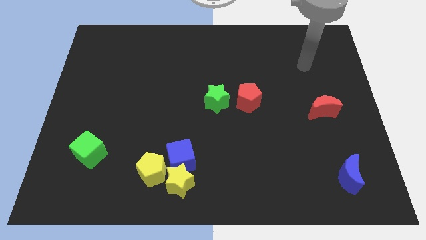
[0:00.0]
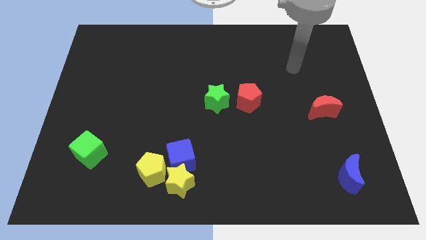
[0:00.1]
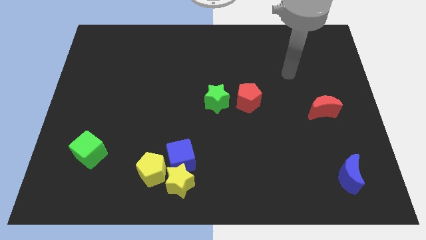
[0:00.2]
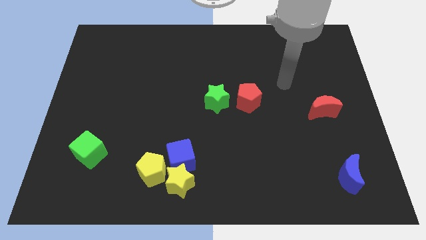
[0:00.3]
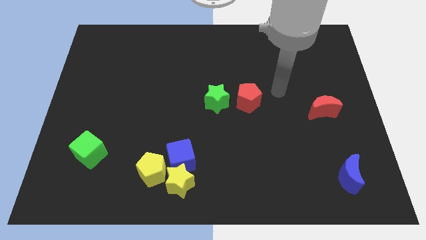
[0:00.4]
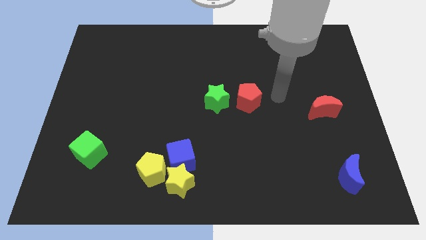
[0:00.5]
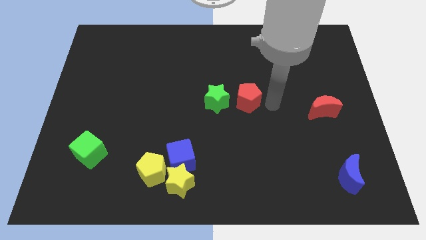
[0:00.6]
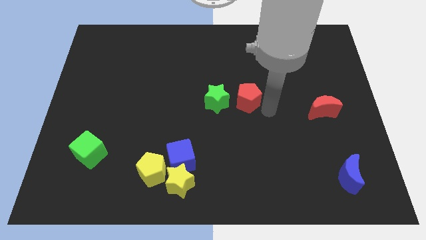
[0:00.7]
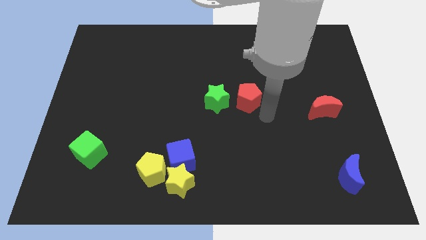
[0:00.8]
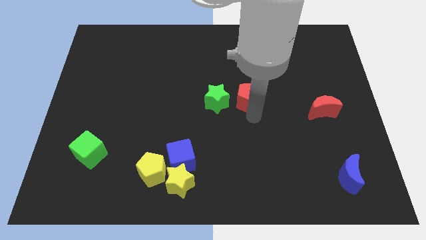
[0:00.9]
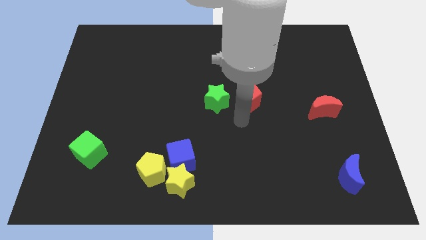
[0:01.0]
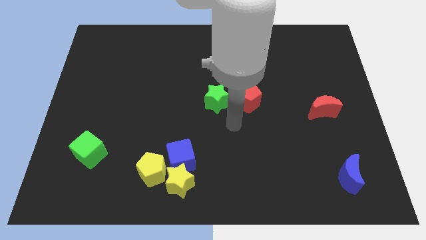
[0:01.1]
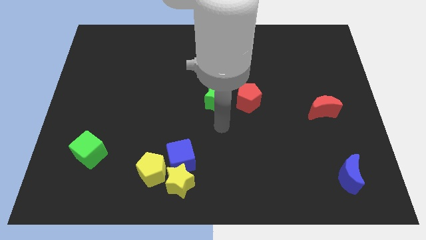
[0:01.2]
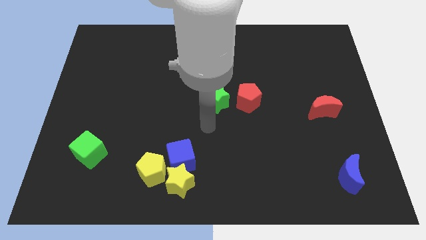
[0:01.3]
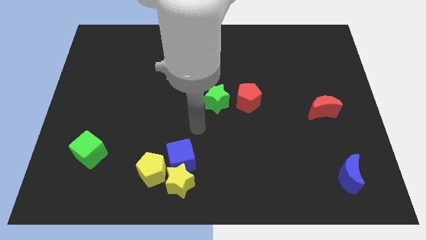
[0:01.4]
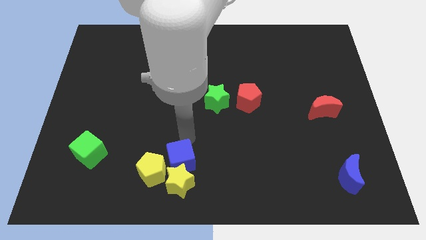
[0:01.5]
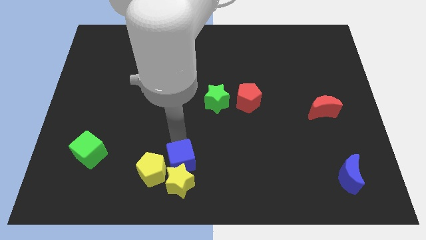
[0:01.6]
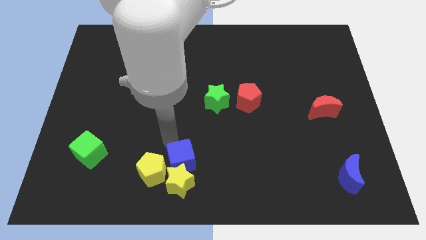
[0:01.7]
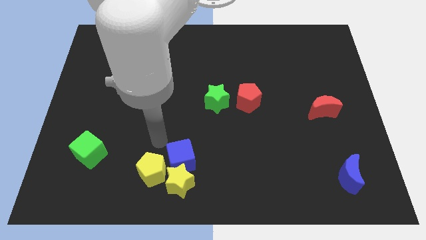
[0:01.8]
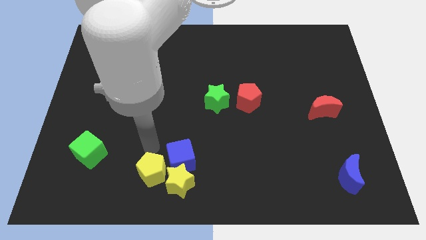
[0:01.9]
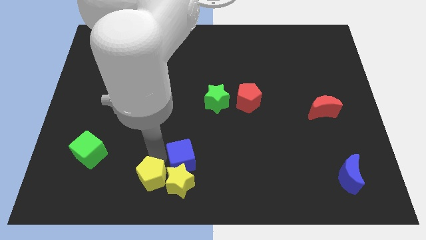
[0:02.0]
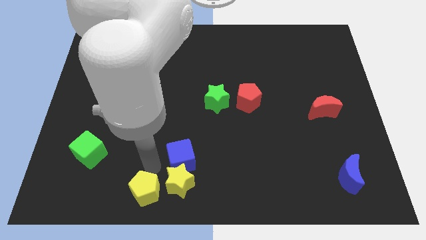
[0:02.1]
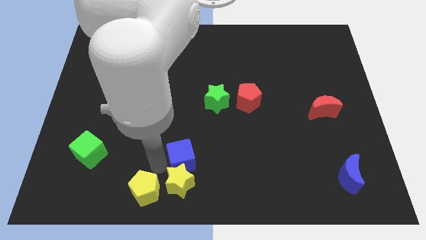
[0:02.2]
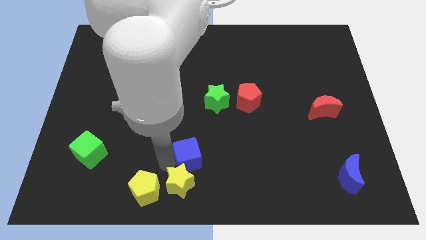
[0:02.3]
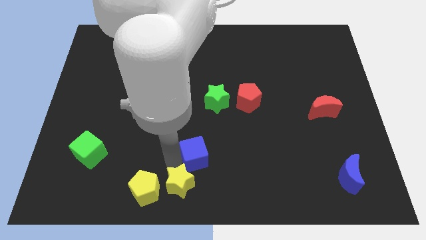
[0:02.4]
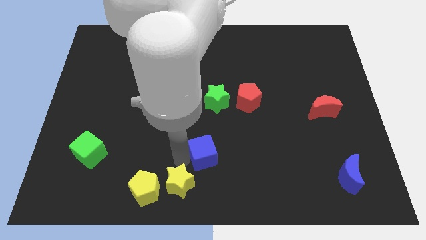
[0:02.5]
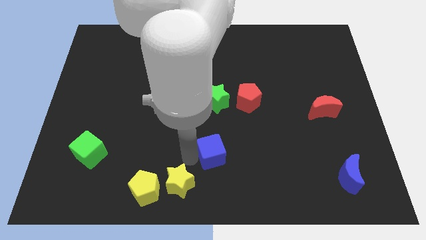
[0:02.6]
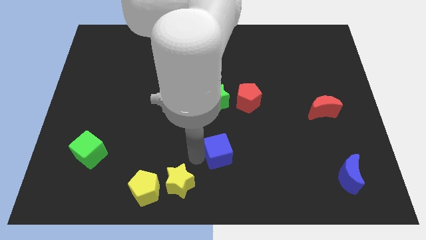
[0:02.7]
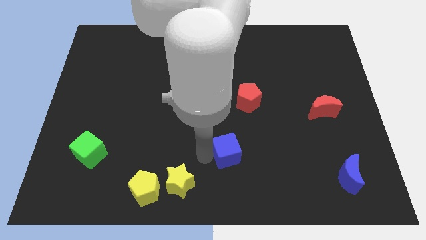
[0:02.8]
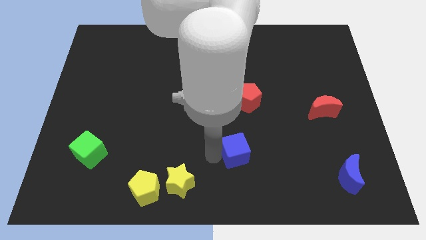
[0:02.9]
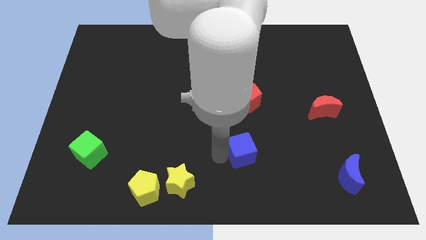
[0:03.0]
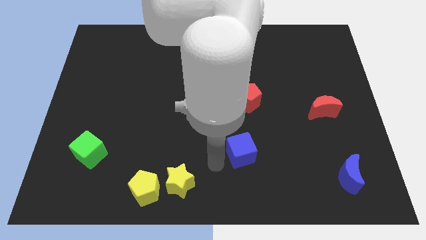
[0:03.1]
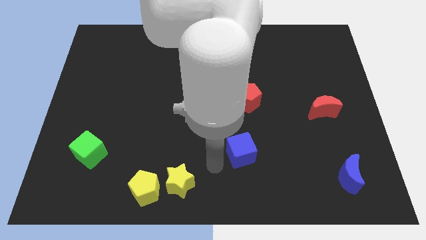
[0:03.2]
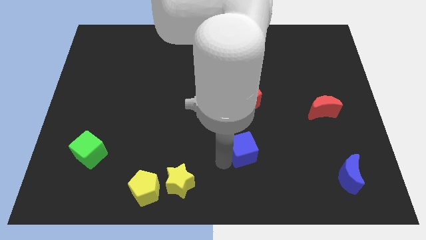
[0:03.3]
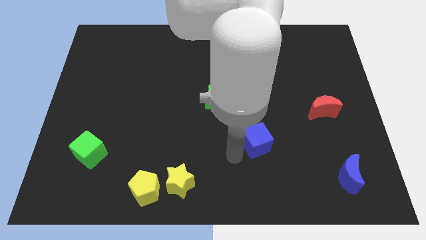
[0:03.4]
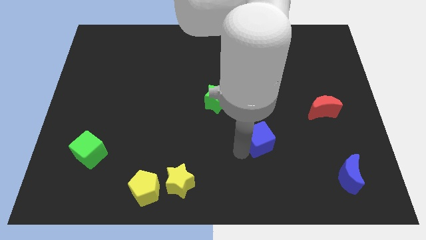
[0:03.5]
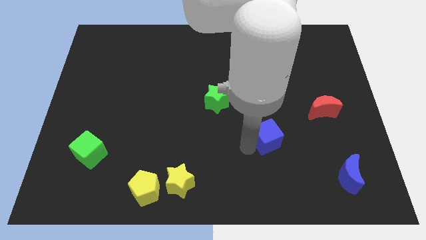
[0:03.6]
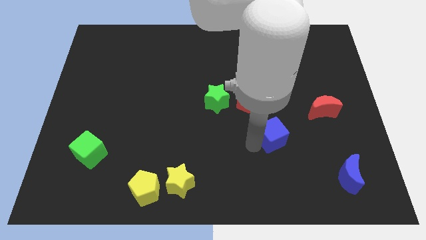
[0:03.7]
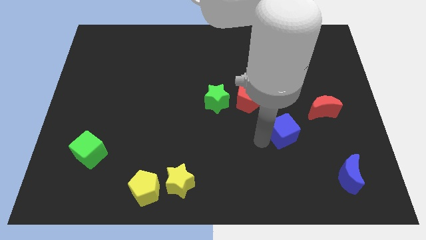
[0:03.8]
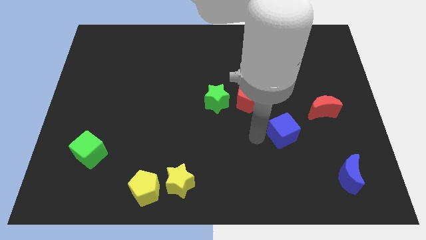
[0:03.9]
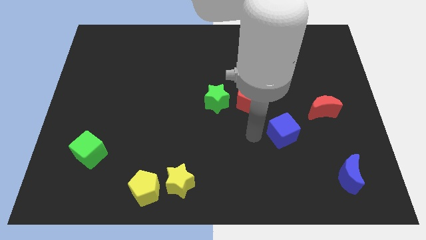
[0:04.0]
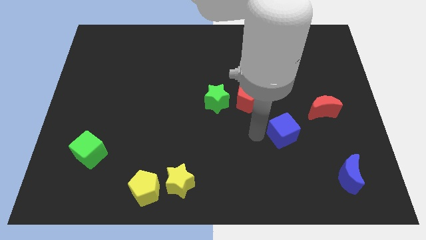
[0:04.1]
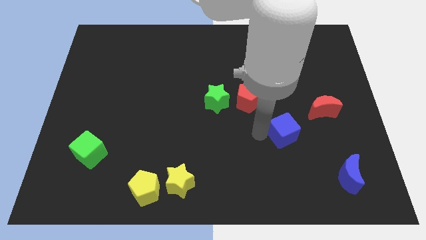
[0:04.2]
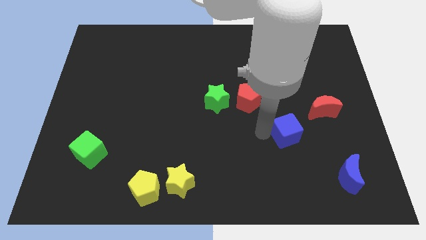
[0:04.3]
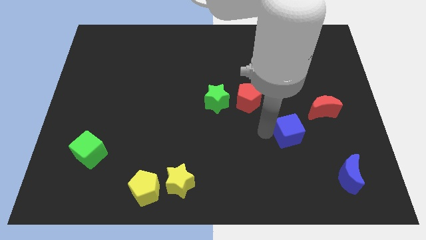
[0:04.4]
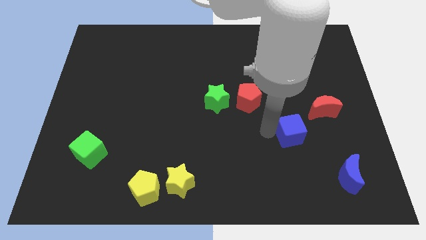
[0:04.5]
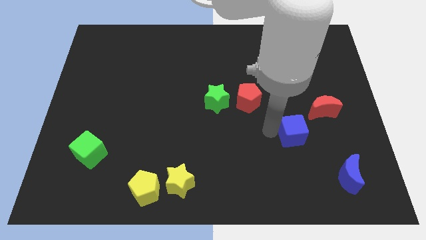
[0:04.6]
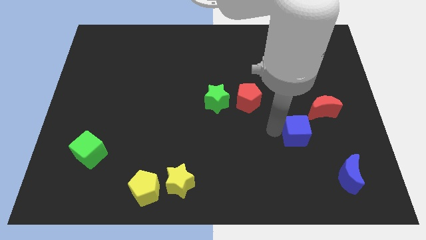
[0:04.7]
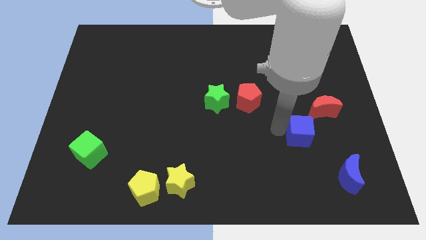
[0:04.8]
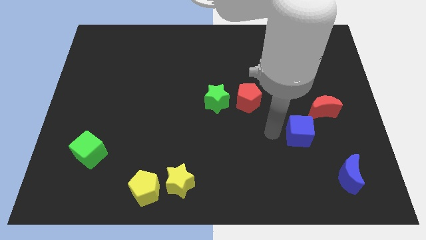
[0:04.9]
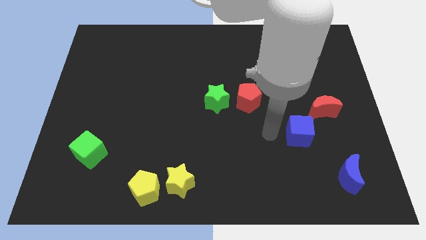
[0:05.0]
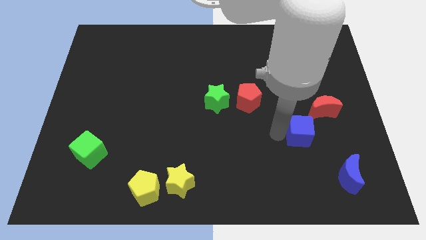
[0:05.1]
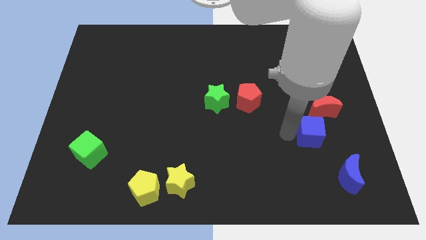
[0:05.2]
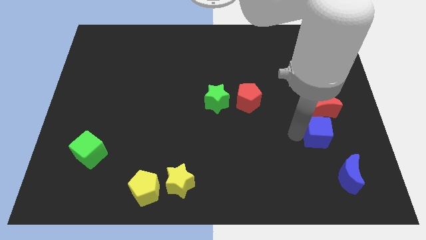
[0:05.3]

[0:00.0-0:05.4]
slide the blue cube above the blue moon

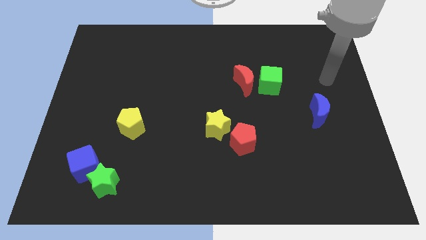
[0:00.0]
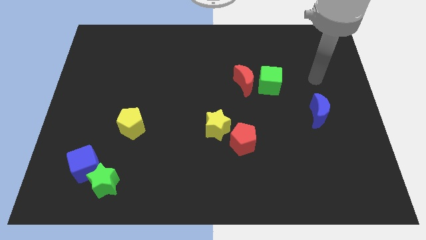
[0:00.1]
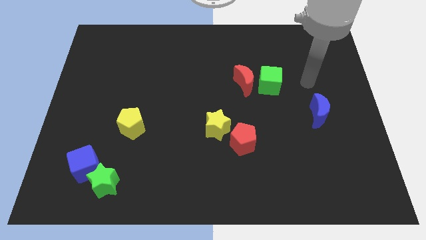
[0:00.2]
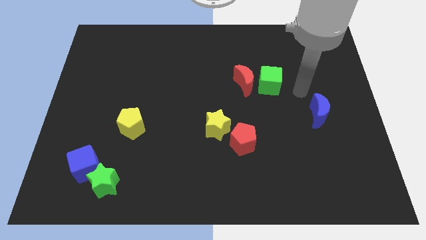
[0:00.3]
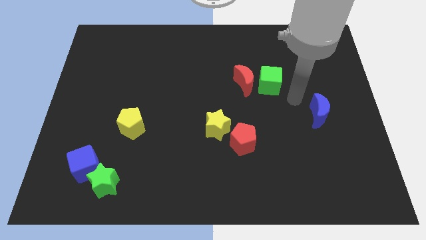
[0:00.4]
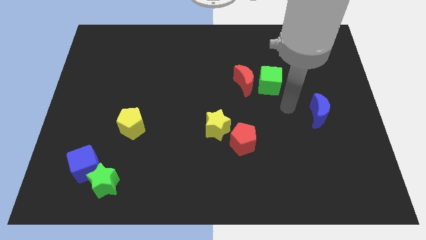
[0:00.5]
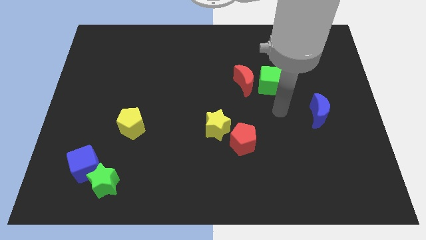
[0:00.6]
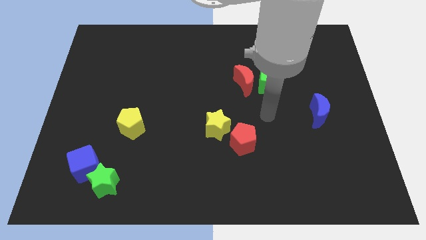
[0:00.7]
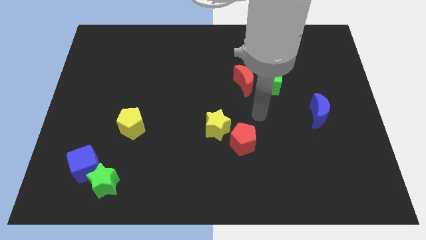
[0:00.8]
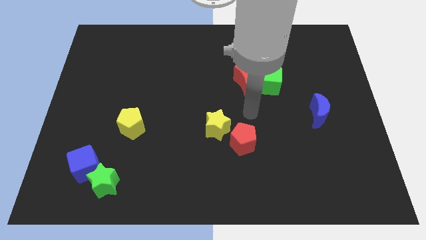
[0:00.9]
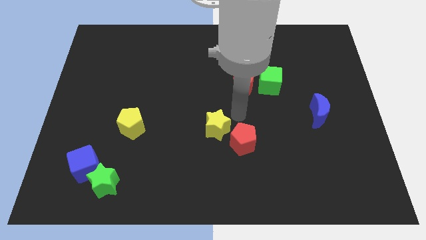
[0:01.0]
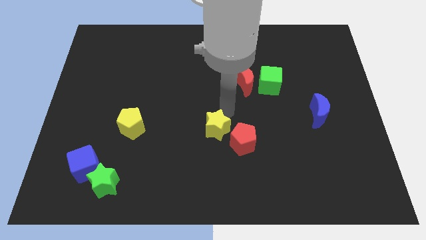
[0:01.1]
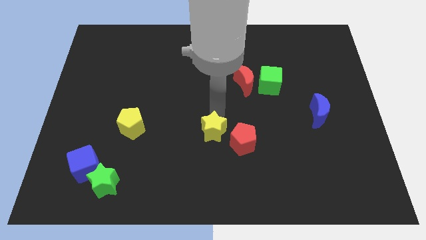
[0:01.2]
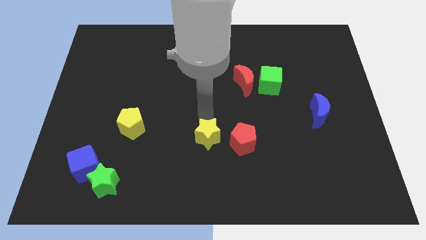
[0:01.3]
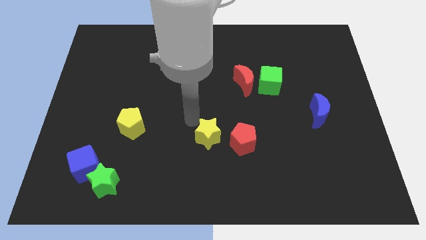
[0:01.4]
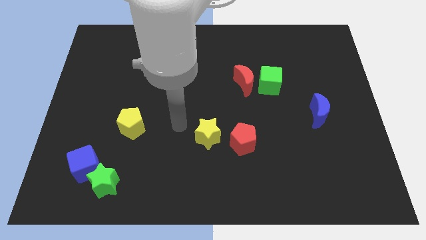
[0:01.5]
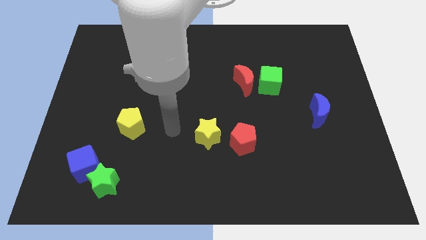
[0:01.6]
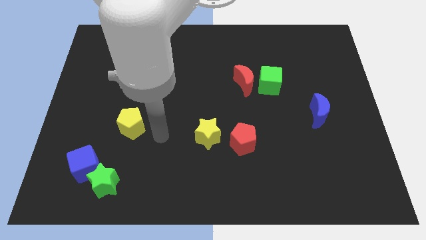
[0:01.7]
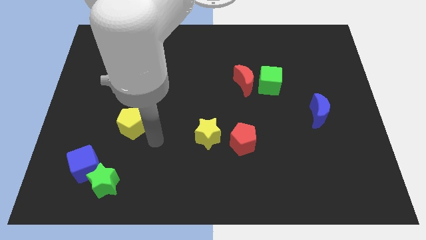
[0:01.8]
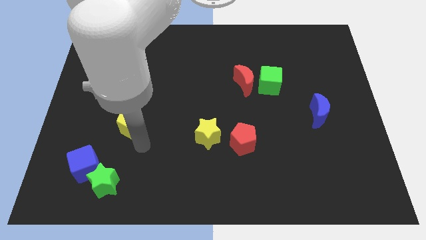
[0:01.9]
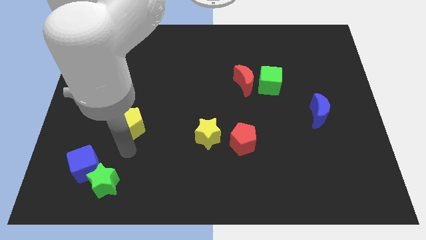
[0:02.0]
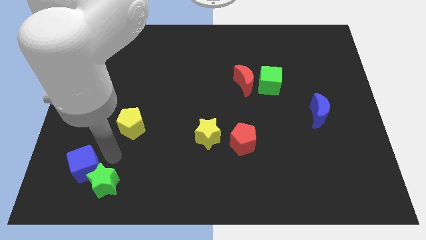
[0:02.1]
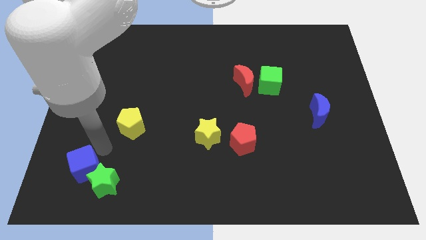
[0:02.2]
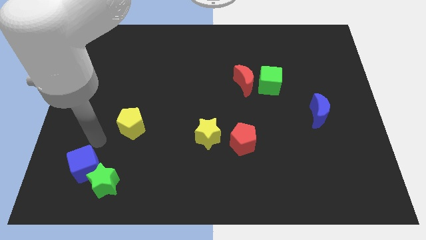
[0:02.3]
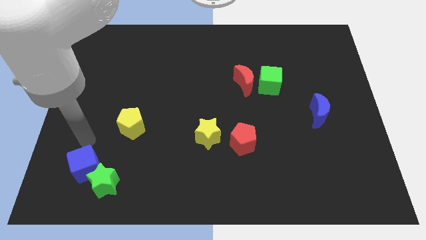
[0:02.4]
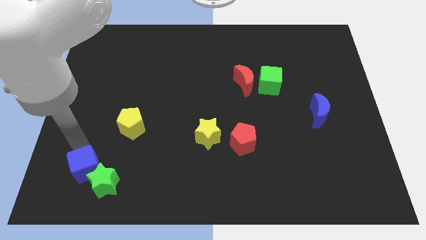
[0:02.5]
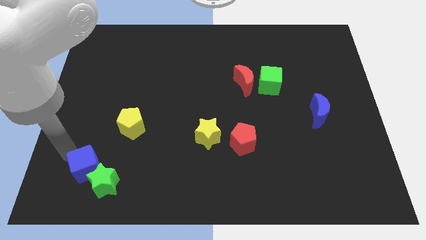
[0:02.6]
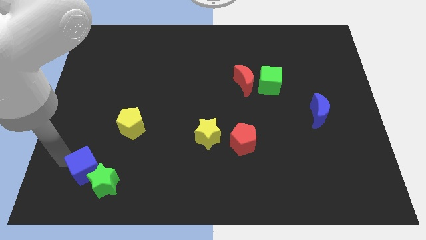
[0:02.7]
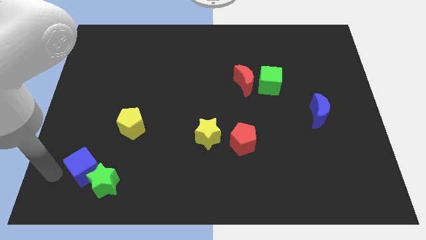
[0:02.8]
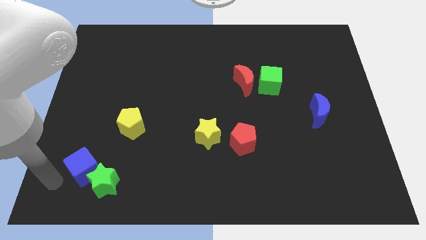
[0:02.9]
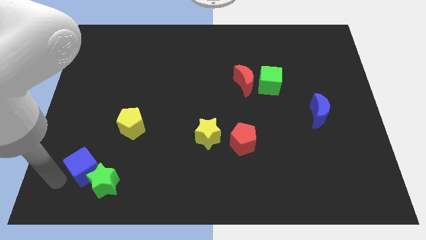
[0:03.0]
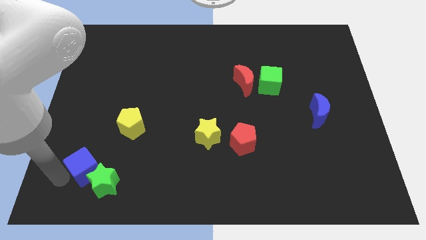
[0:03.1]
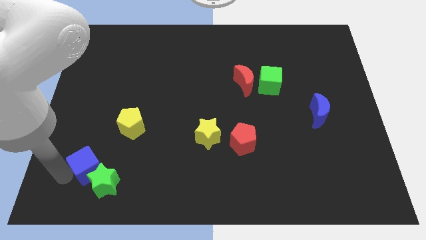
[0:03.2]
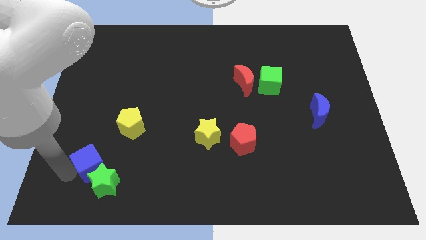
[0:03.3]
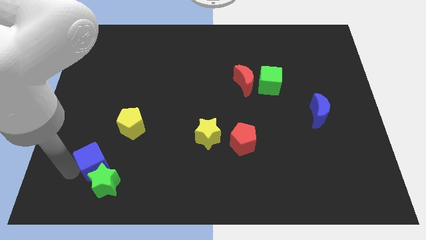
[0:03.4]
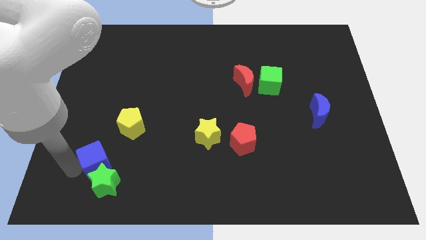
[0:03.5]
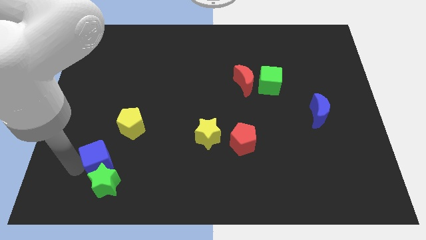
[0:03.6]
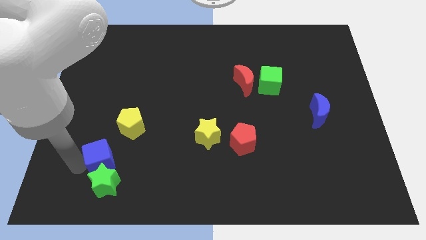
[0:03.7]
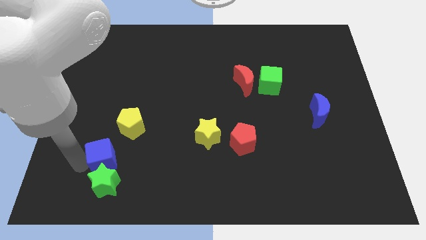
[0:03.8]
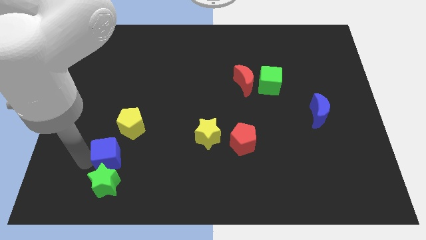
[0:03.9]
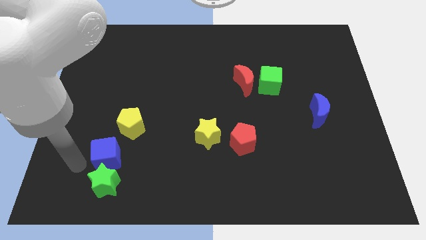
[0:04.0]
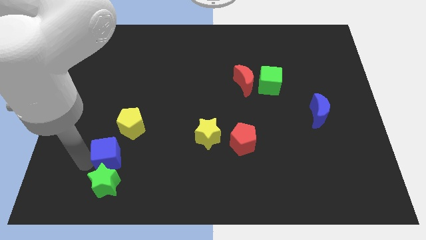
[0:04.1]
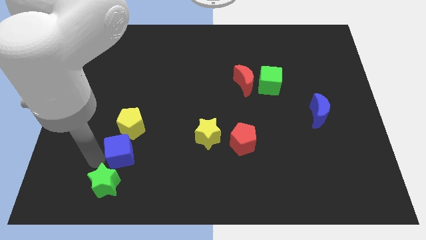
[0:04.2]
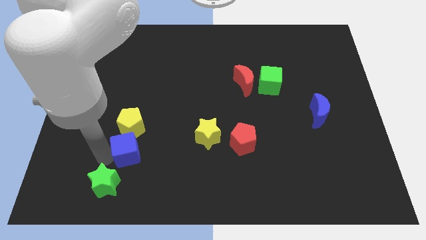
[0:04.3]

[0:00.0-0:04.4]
move the blue cube to the bottom right of the yellow pentagon
